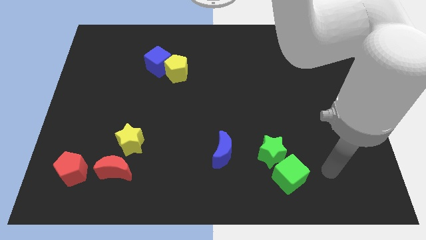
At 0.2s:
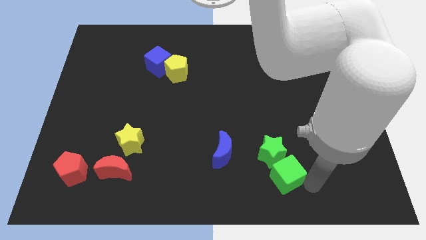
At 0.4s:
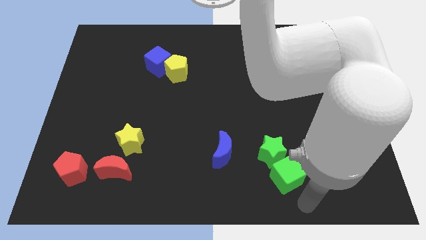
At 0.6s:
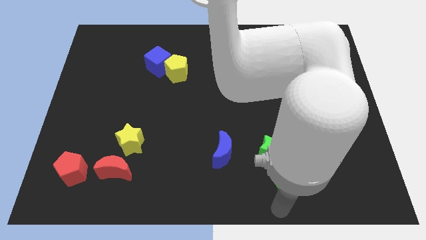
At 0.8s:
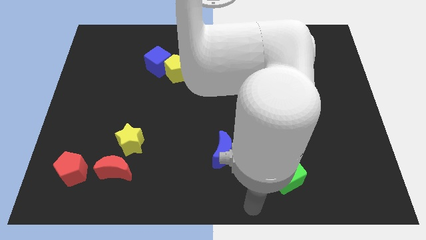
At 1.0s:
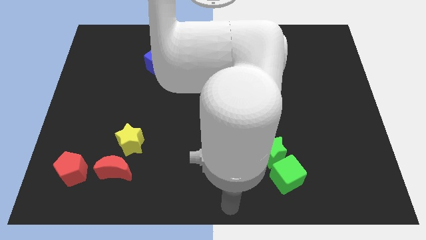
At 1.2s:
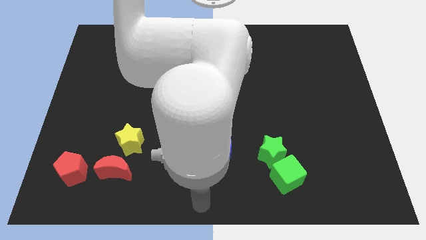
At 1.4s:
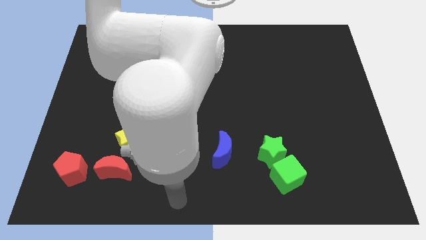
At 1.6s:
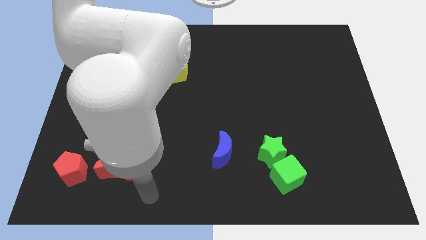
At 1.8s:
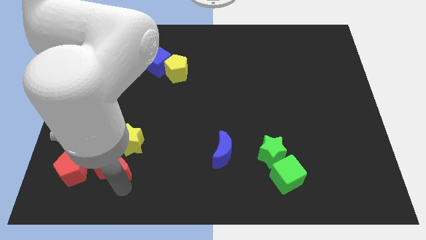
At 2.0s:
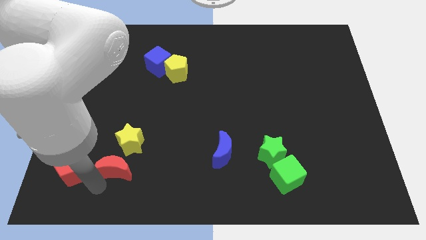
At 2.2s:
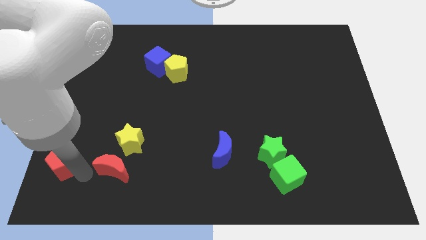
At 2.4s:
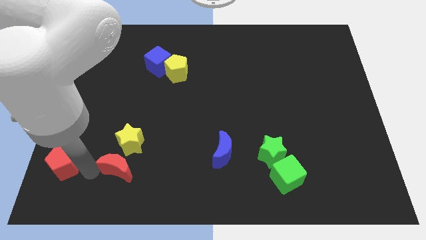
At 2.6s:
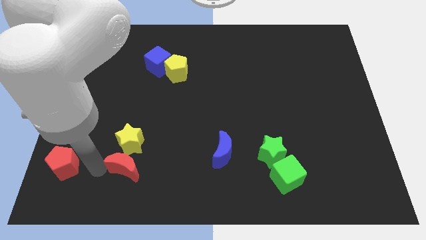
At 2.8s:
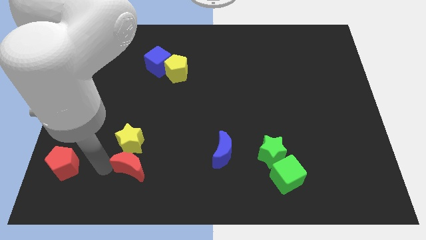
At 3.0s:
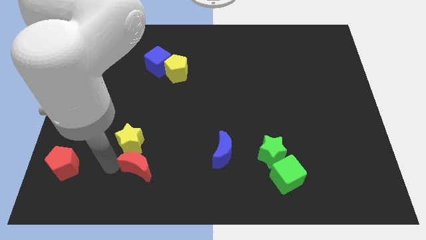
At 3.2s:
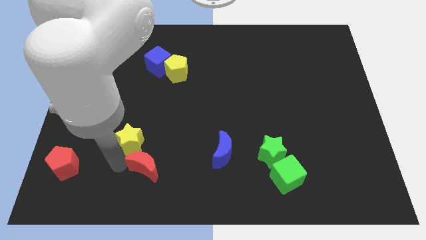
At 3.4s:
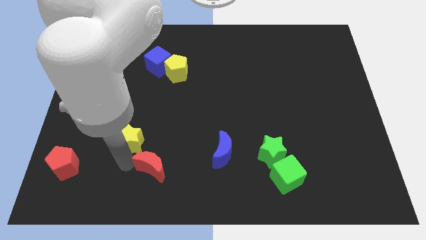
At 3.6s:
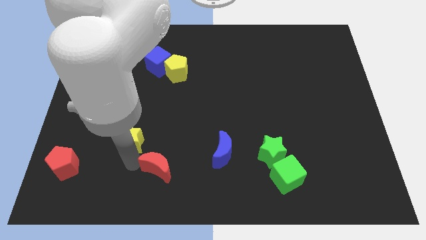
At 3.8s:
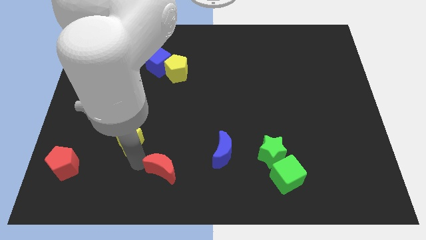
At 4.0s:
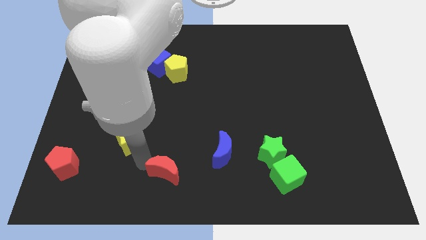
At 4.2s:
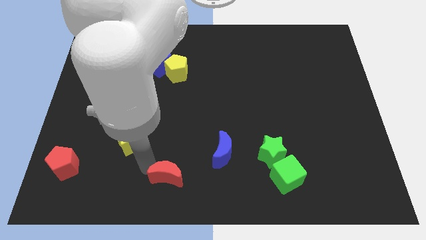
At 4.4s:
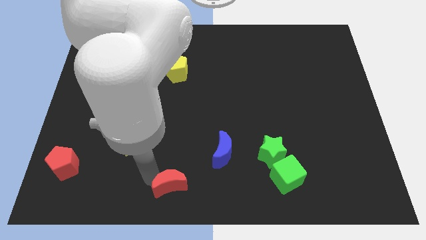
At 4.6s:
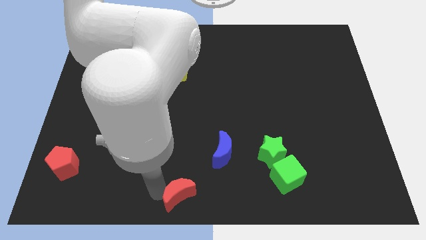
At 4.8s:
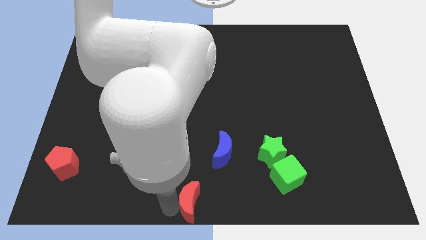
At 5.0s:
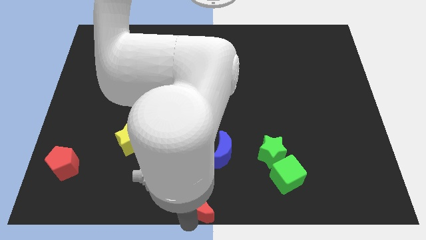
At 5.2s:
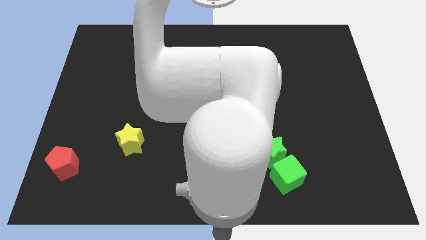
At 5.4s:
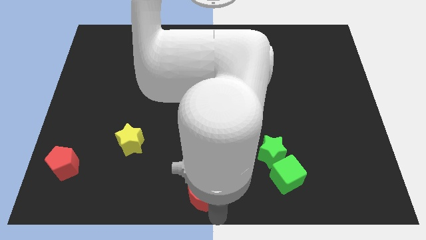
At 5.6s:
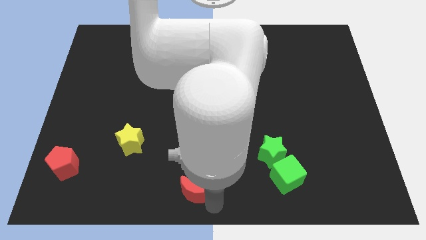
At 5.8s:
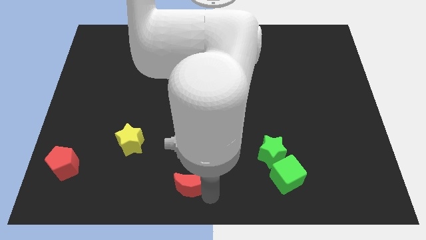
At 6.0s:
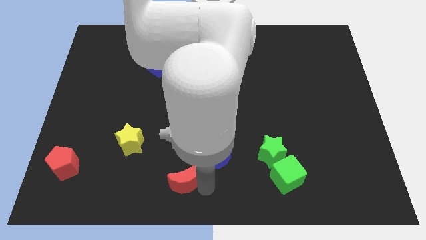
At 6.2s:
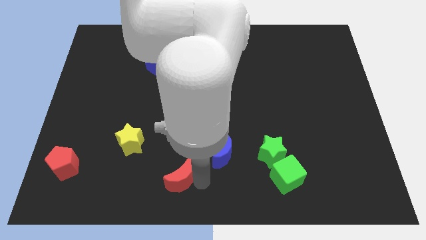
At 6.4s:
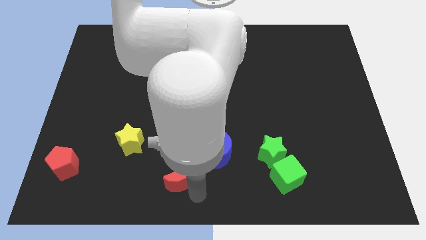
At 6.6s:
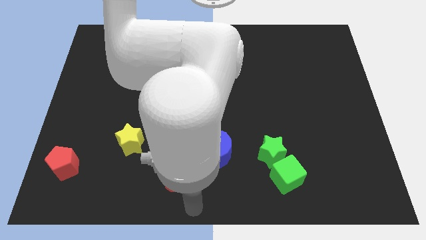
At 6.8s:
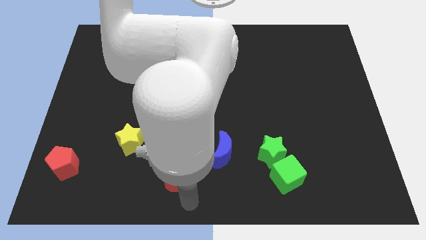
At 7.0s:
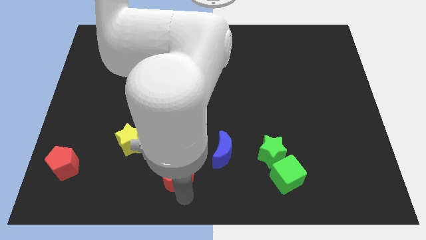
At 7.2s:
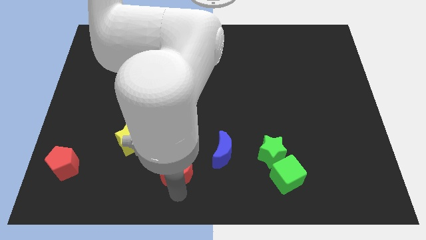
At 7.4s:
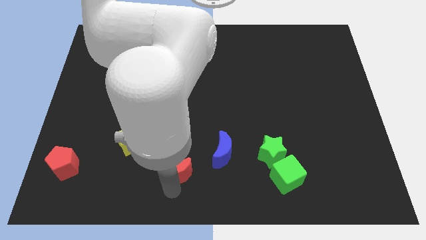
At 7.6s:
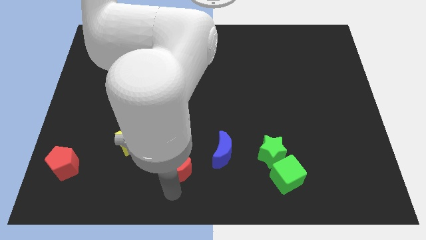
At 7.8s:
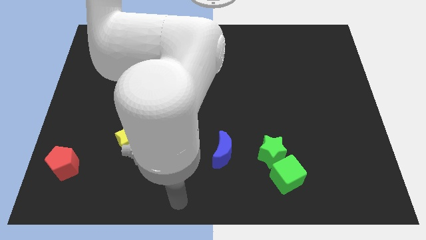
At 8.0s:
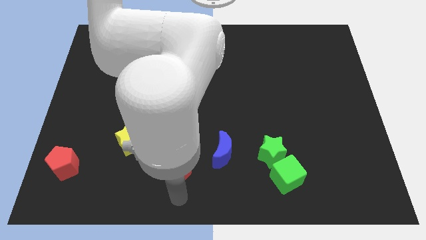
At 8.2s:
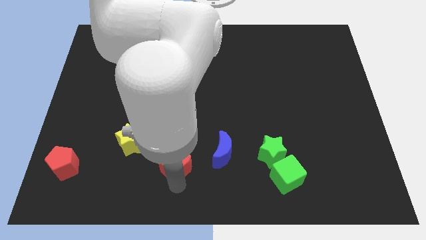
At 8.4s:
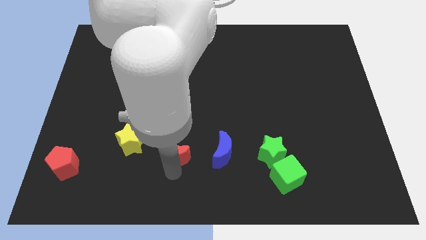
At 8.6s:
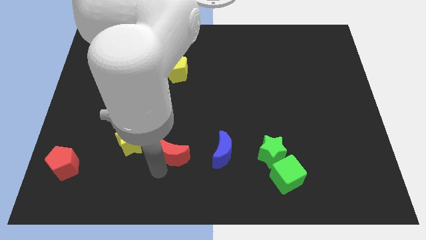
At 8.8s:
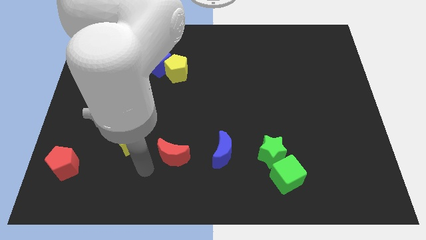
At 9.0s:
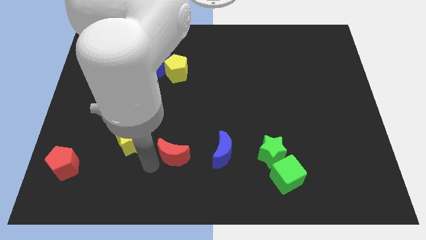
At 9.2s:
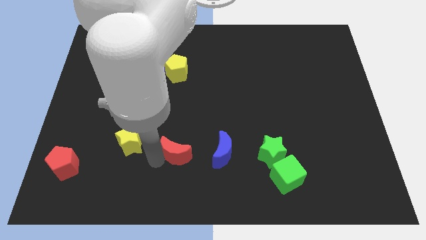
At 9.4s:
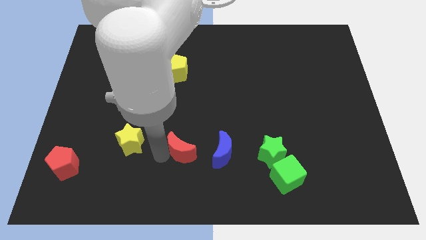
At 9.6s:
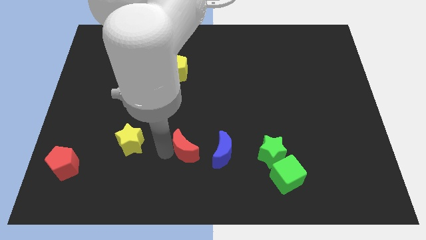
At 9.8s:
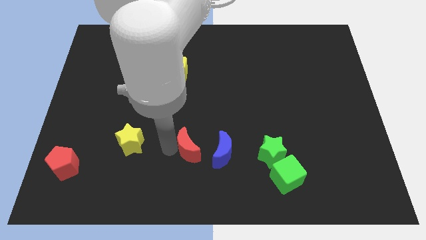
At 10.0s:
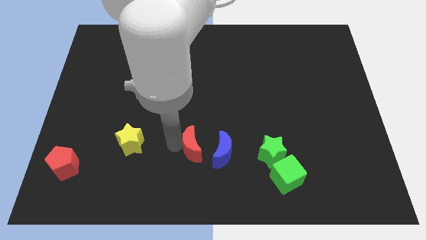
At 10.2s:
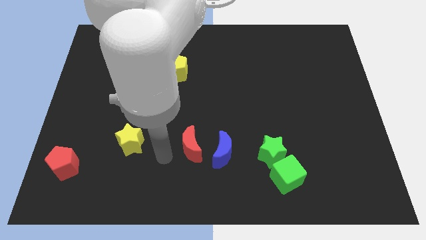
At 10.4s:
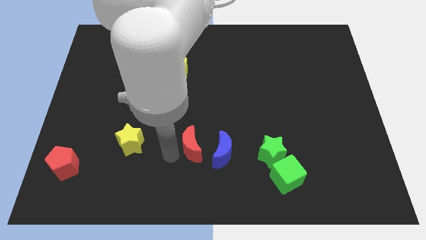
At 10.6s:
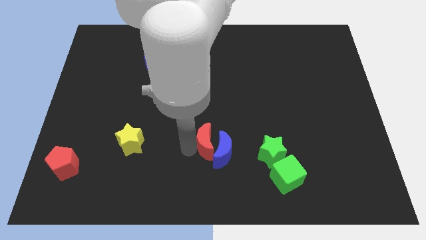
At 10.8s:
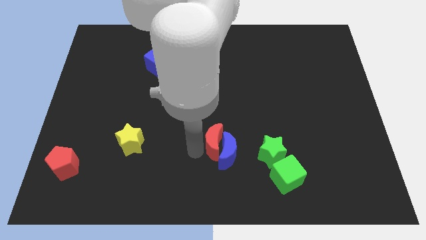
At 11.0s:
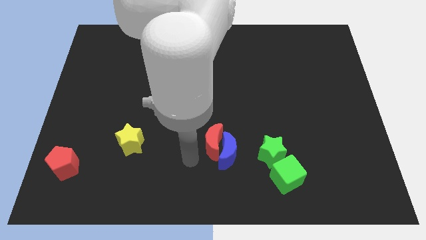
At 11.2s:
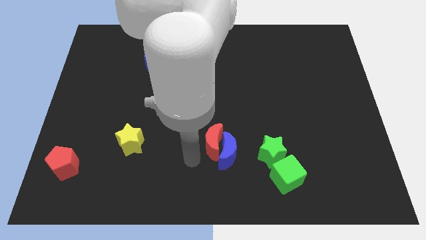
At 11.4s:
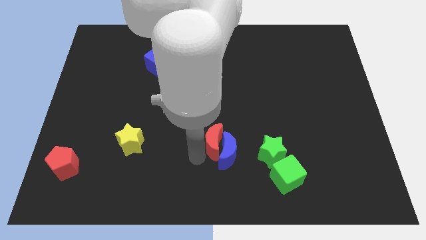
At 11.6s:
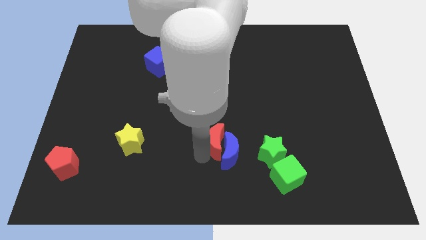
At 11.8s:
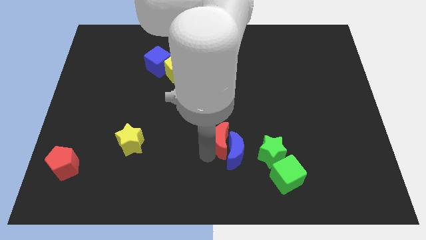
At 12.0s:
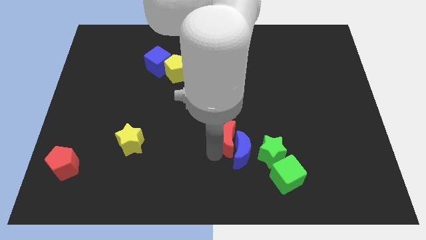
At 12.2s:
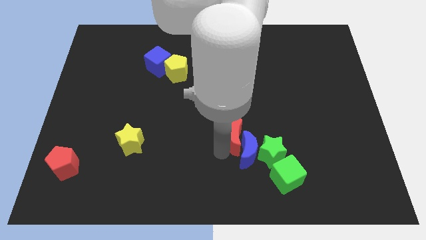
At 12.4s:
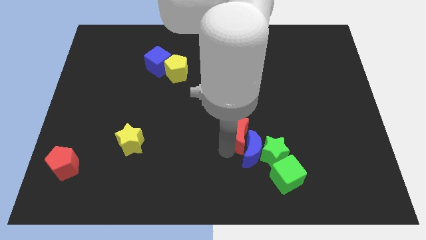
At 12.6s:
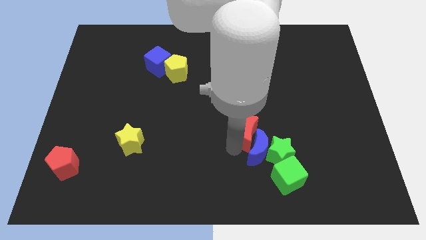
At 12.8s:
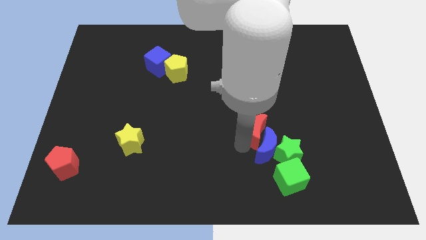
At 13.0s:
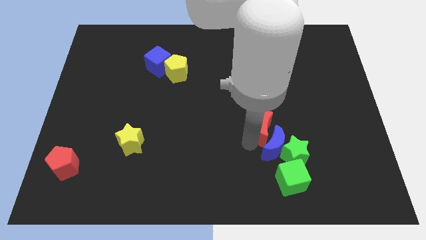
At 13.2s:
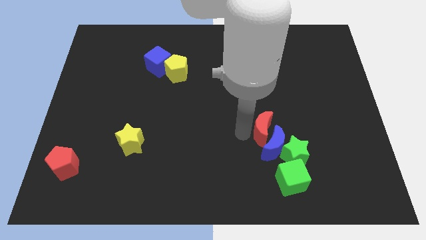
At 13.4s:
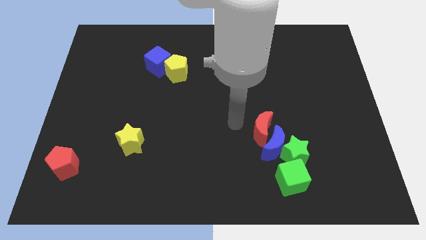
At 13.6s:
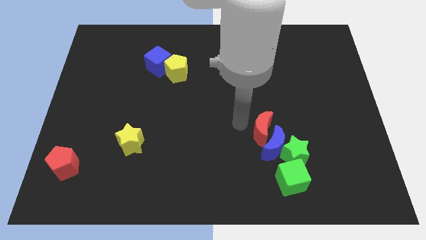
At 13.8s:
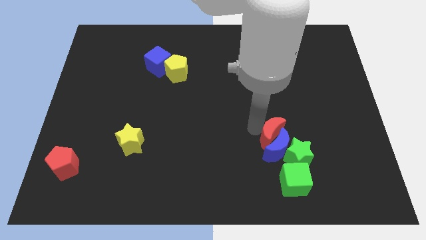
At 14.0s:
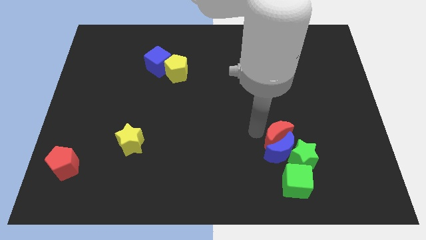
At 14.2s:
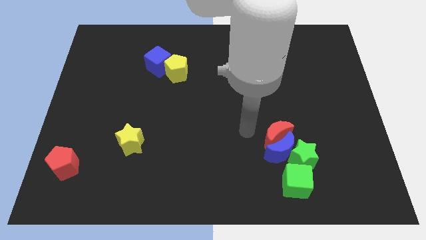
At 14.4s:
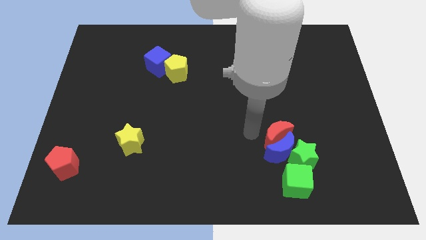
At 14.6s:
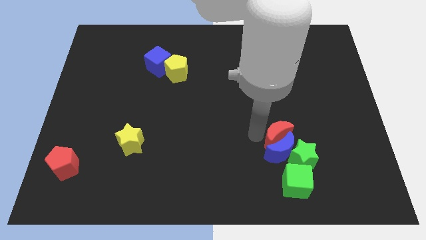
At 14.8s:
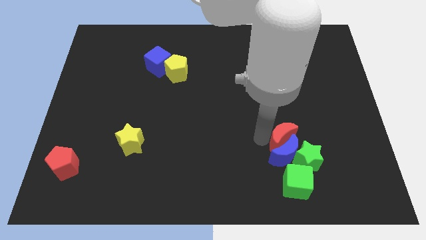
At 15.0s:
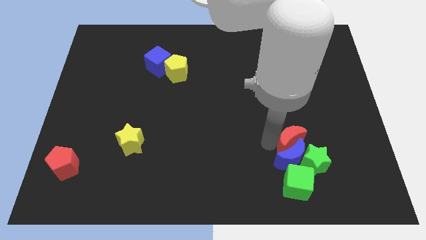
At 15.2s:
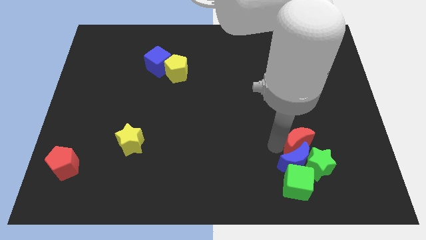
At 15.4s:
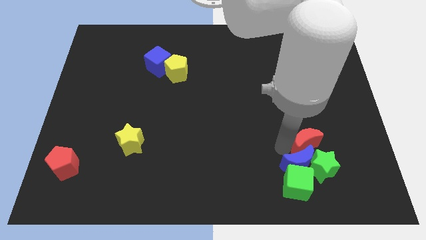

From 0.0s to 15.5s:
slide the red moon to the top right of the green cube
